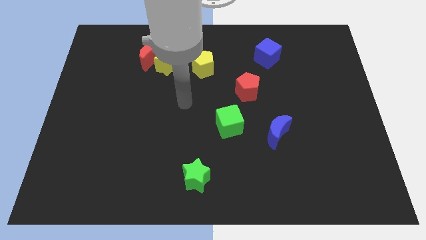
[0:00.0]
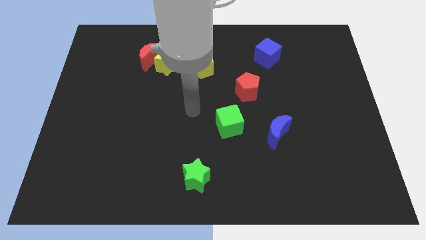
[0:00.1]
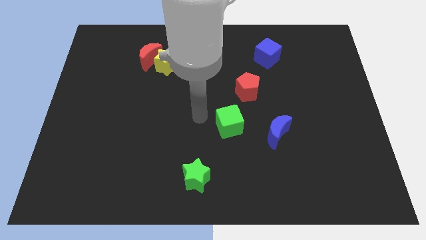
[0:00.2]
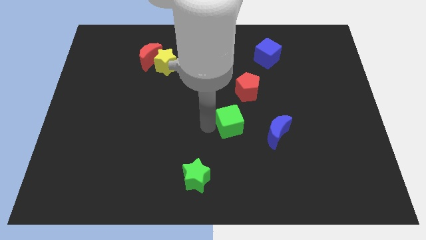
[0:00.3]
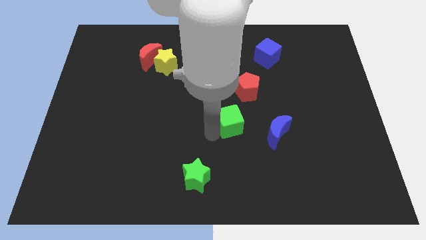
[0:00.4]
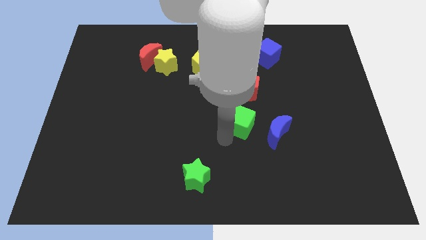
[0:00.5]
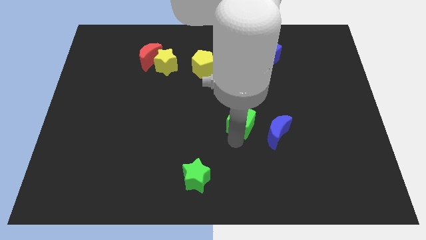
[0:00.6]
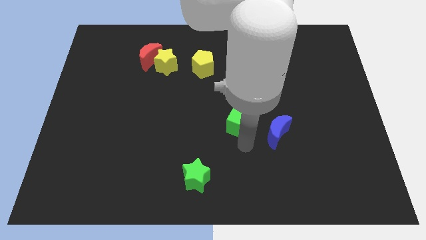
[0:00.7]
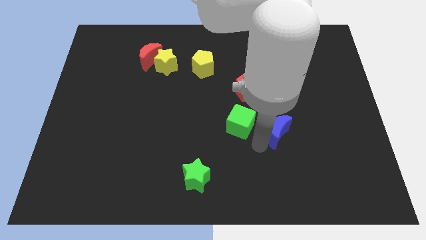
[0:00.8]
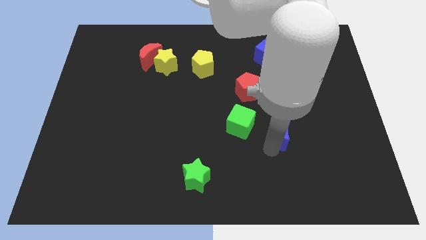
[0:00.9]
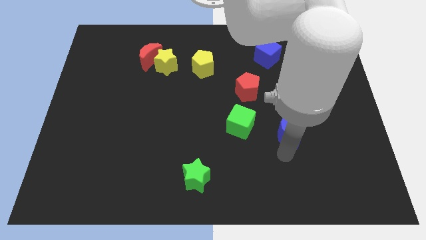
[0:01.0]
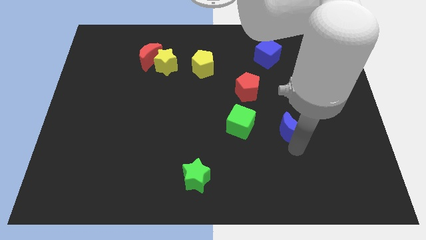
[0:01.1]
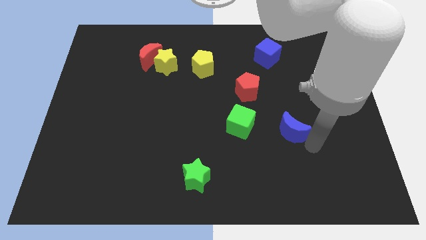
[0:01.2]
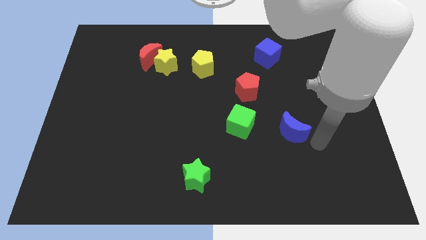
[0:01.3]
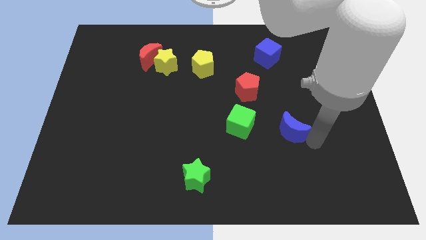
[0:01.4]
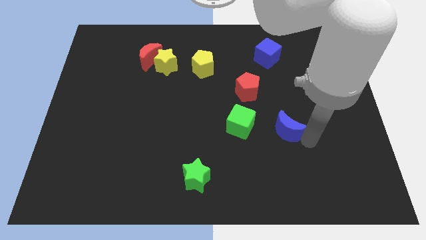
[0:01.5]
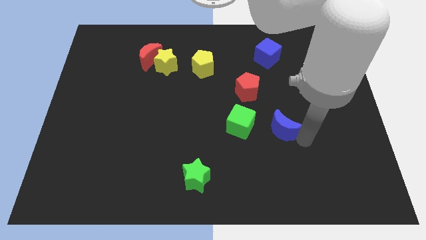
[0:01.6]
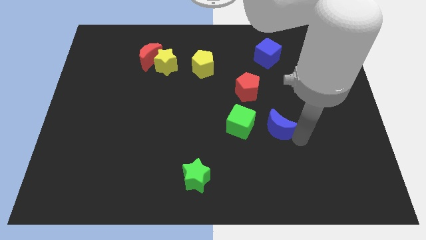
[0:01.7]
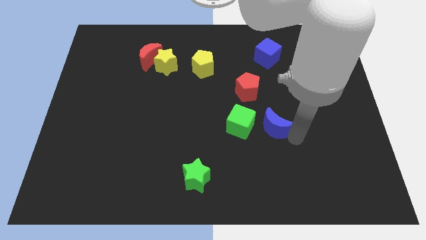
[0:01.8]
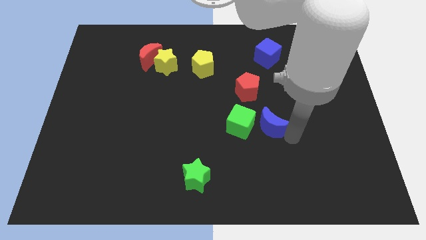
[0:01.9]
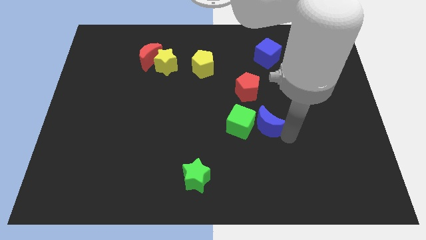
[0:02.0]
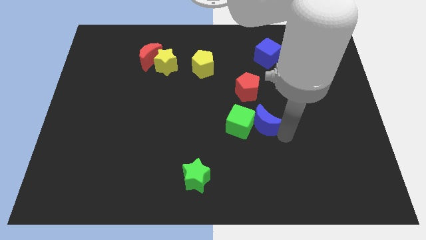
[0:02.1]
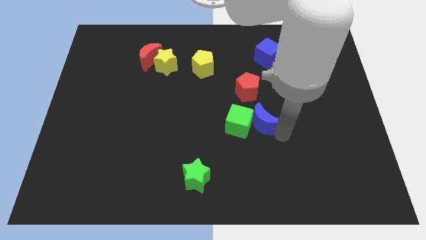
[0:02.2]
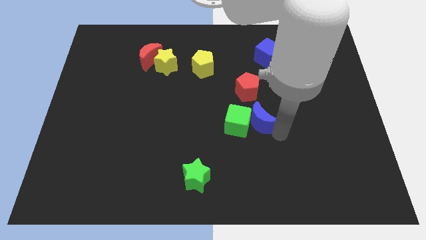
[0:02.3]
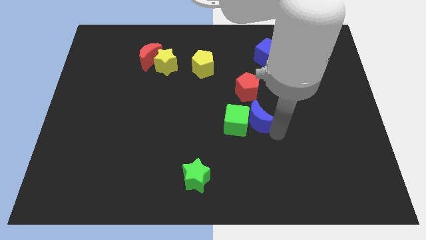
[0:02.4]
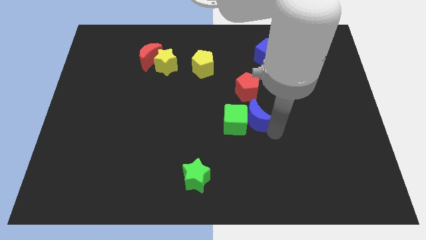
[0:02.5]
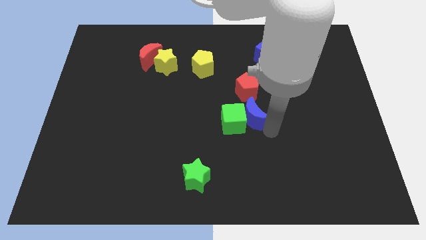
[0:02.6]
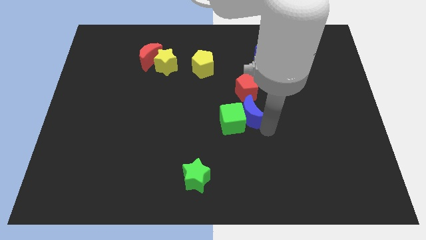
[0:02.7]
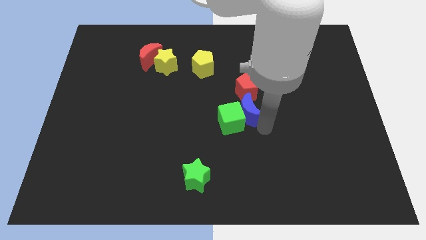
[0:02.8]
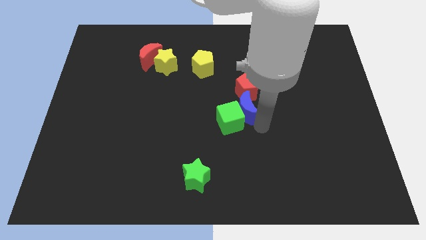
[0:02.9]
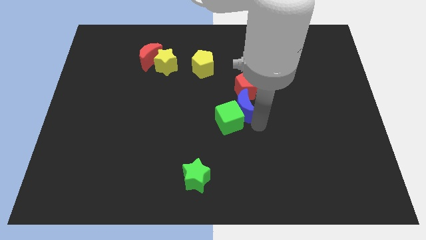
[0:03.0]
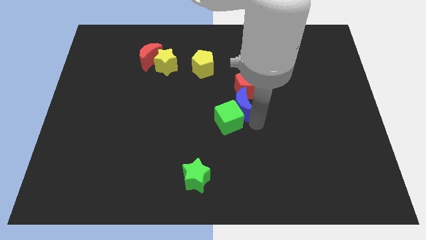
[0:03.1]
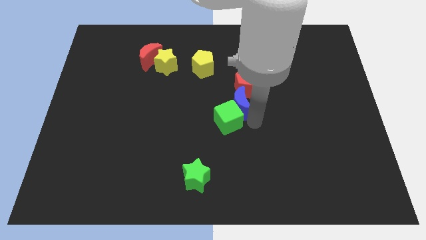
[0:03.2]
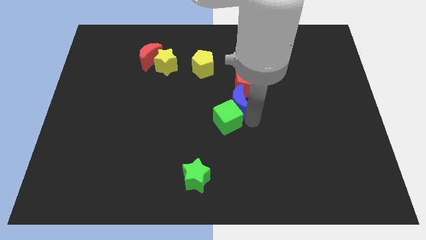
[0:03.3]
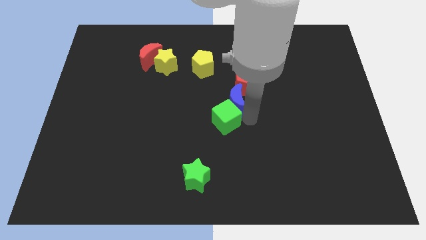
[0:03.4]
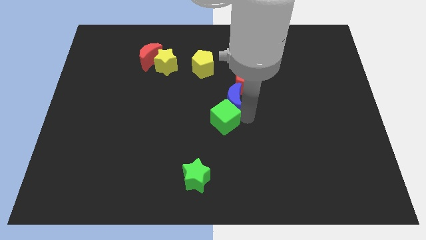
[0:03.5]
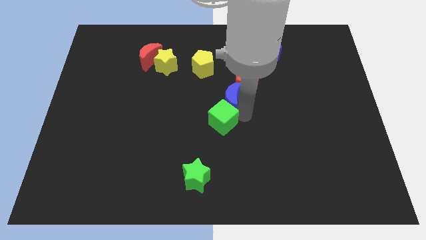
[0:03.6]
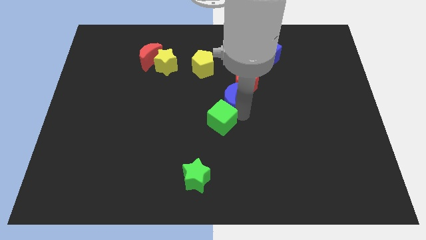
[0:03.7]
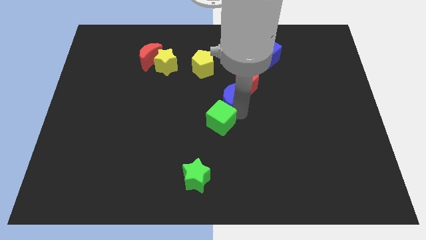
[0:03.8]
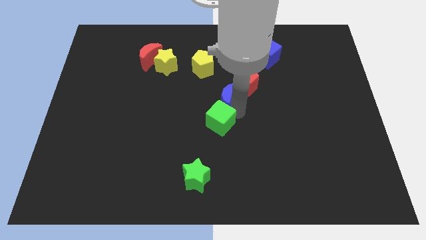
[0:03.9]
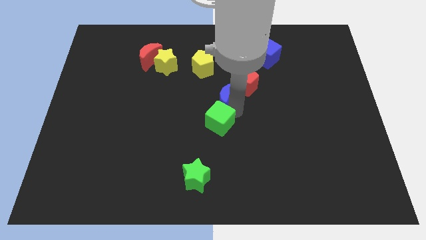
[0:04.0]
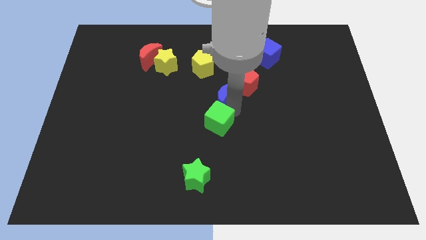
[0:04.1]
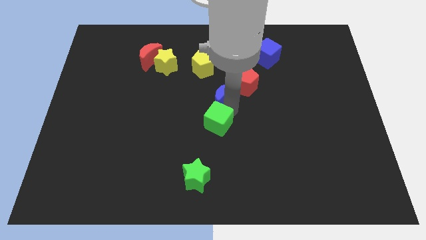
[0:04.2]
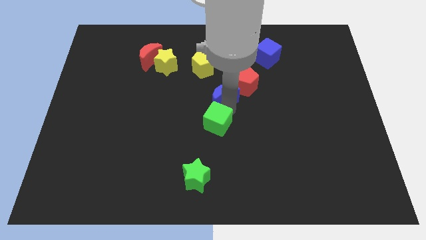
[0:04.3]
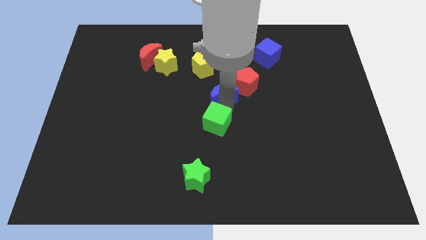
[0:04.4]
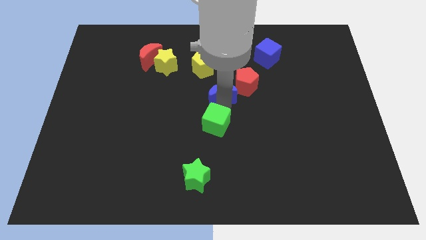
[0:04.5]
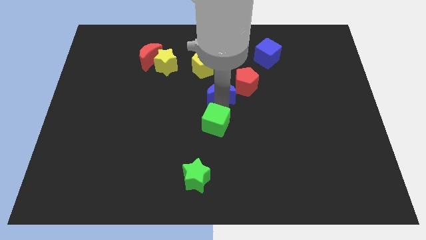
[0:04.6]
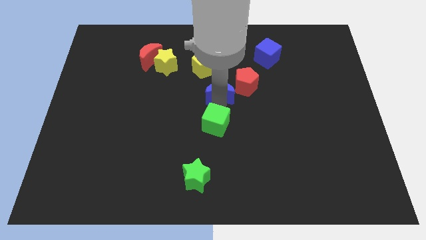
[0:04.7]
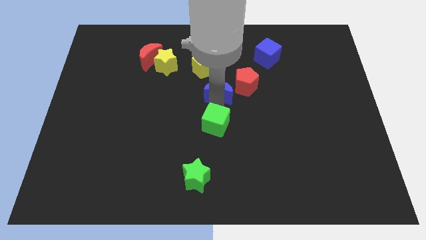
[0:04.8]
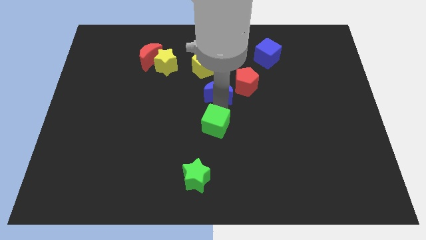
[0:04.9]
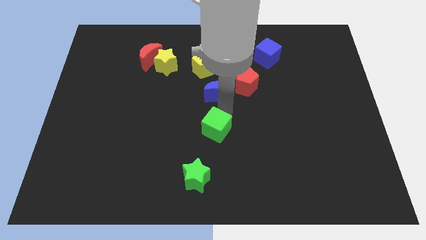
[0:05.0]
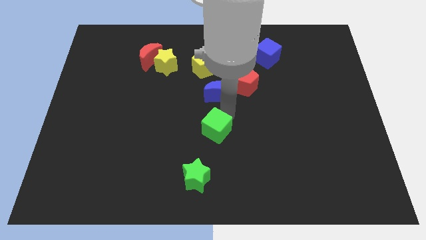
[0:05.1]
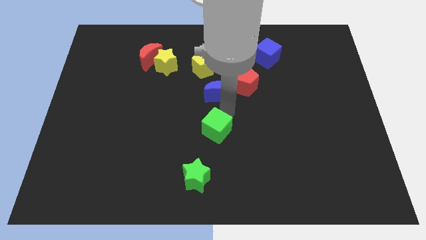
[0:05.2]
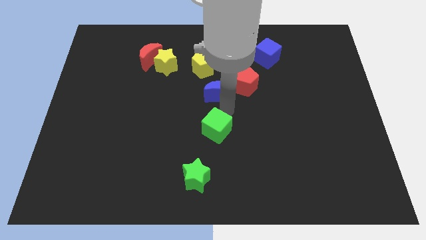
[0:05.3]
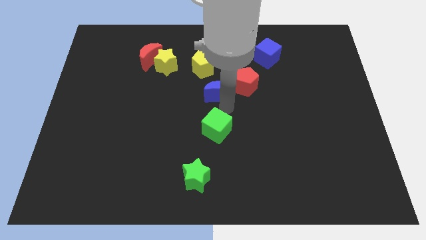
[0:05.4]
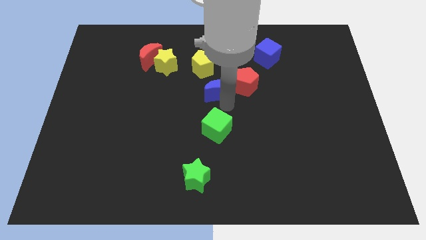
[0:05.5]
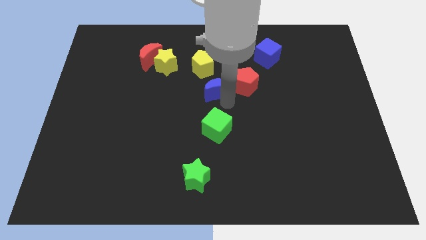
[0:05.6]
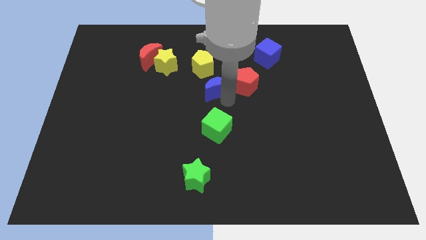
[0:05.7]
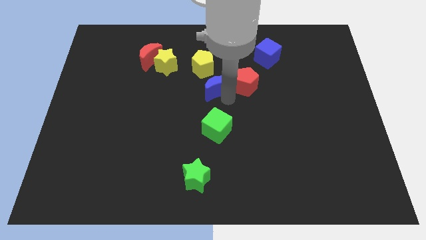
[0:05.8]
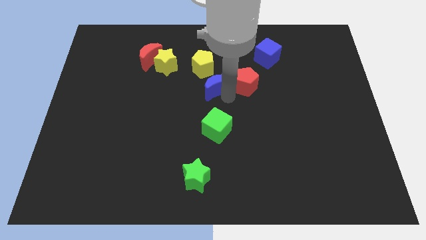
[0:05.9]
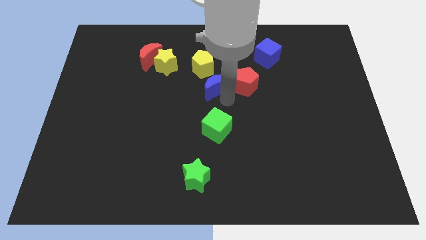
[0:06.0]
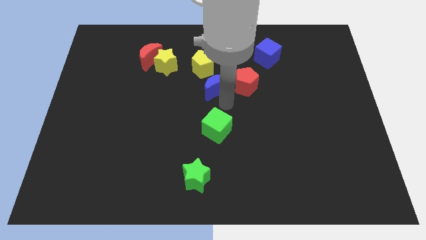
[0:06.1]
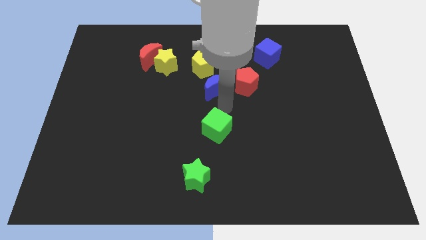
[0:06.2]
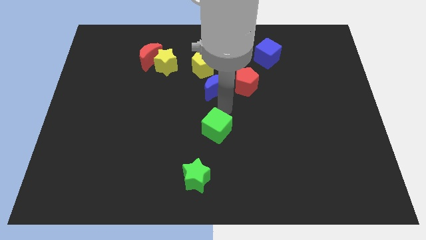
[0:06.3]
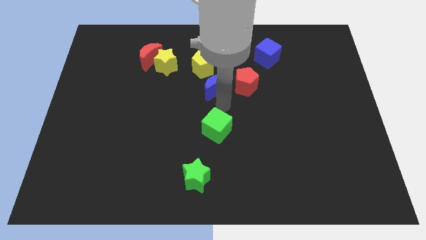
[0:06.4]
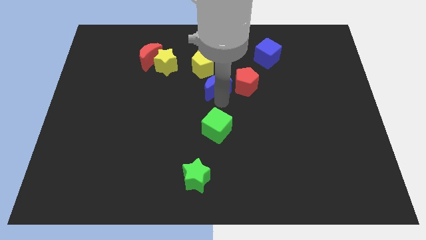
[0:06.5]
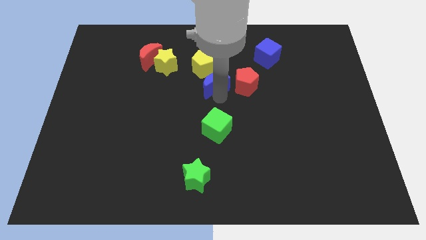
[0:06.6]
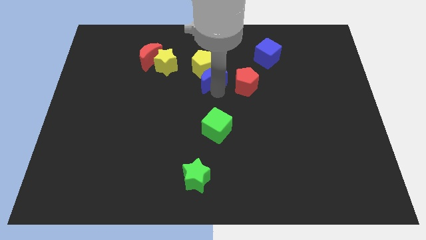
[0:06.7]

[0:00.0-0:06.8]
move the blue moon next to the yellow pentagon

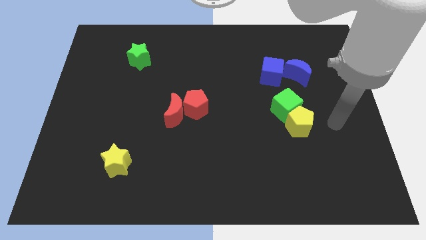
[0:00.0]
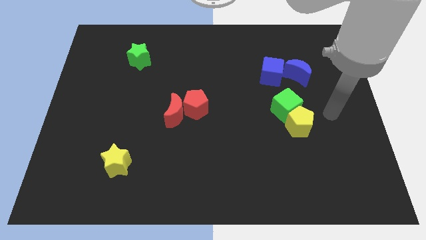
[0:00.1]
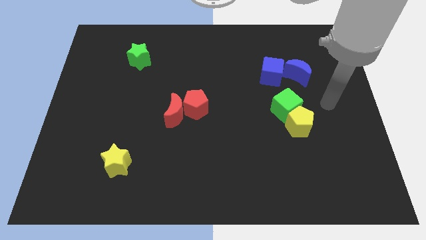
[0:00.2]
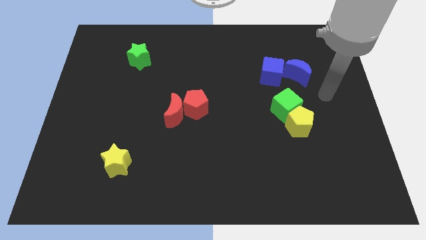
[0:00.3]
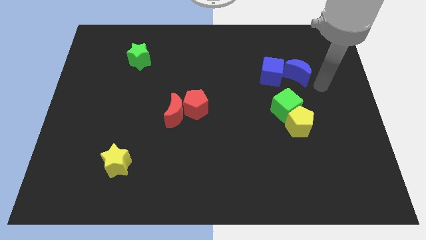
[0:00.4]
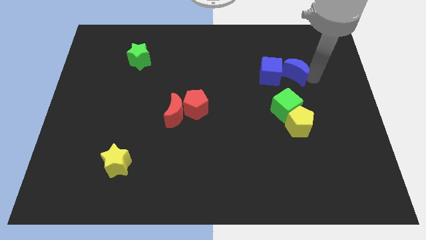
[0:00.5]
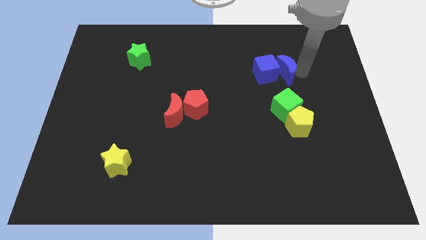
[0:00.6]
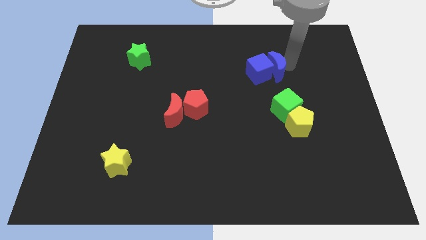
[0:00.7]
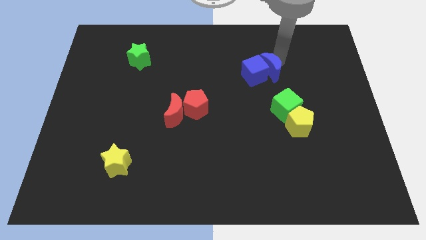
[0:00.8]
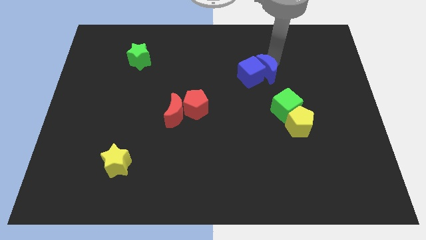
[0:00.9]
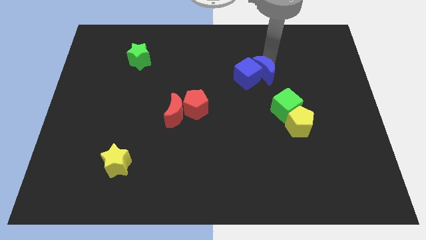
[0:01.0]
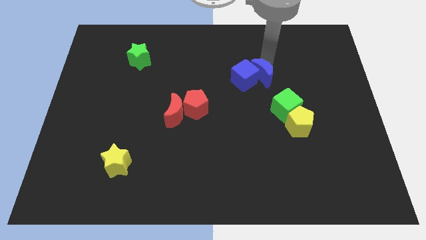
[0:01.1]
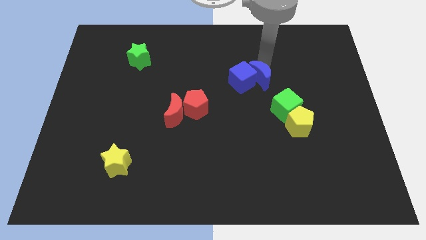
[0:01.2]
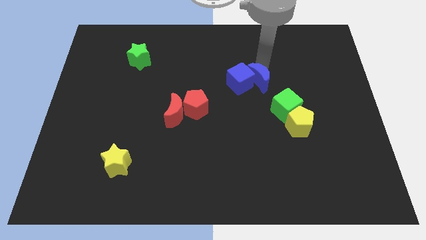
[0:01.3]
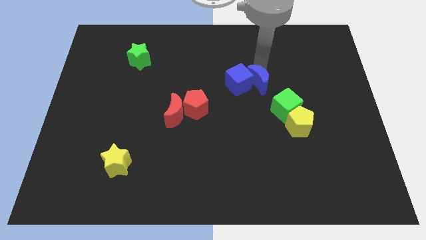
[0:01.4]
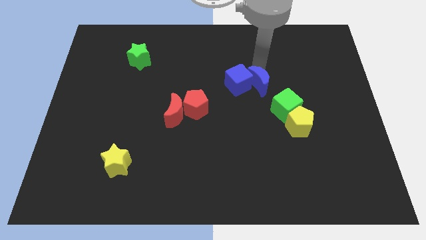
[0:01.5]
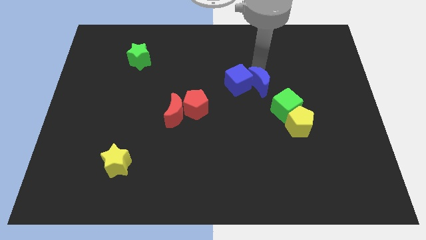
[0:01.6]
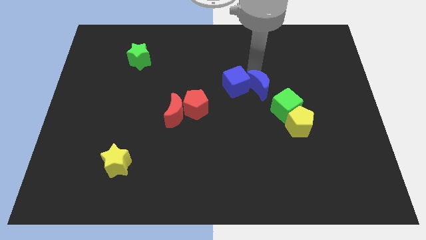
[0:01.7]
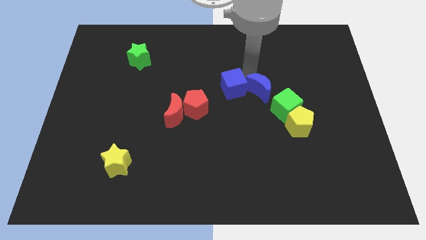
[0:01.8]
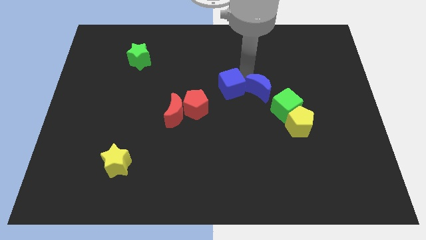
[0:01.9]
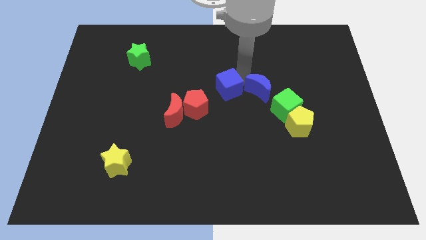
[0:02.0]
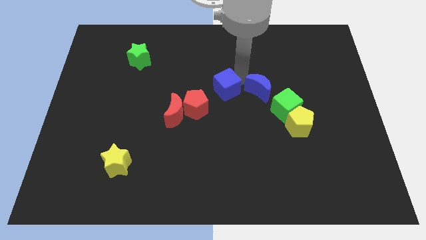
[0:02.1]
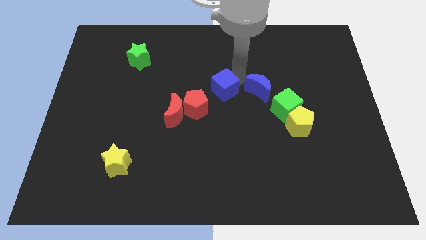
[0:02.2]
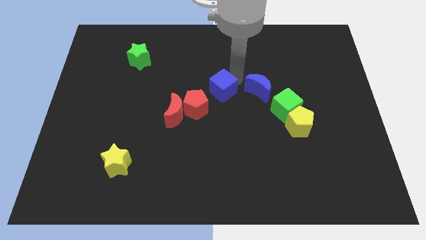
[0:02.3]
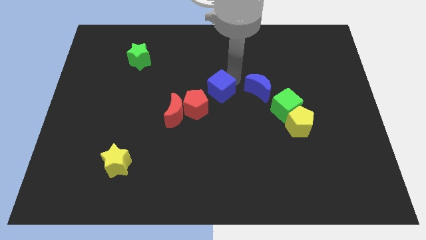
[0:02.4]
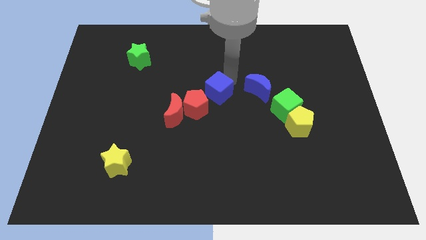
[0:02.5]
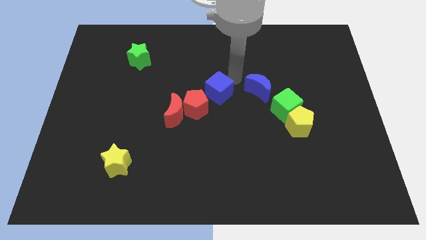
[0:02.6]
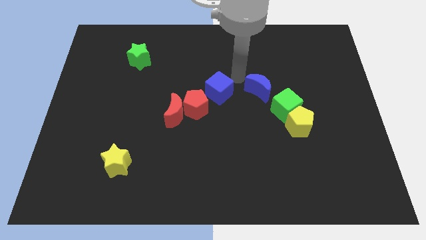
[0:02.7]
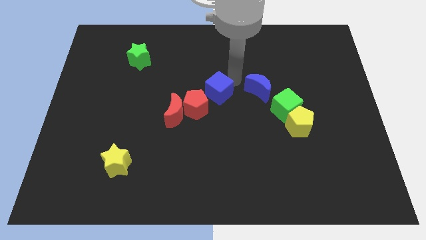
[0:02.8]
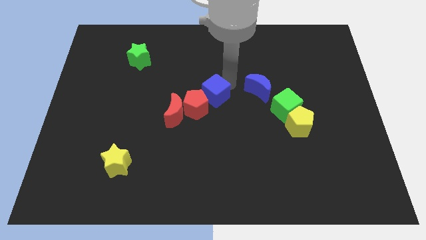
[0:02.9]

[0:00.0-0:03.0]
move the blue cube close to the red pentagon
